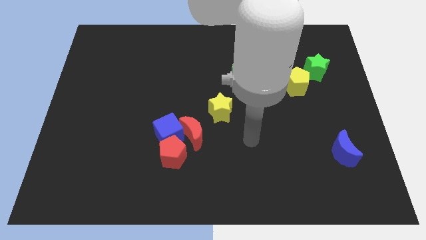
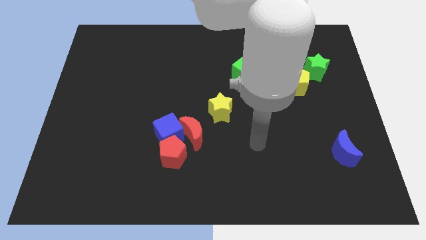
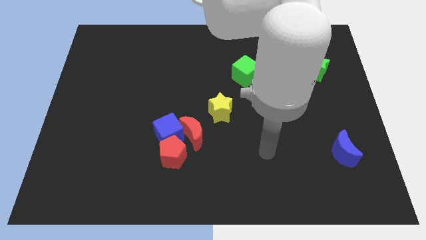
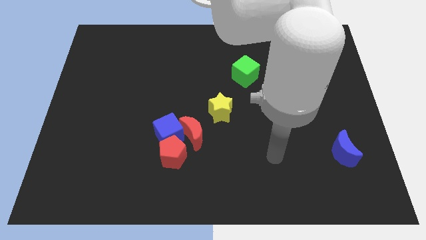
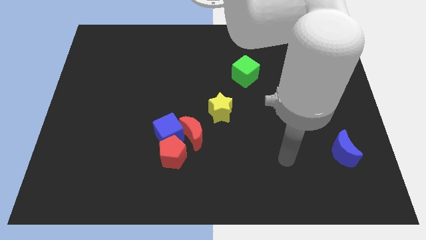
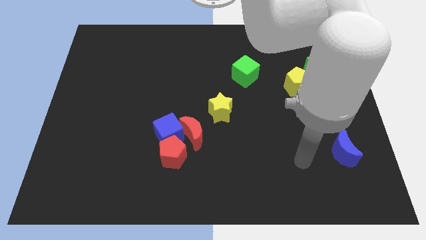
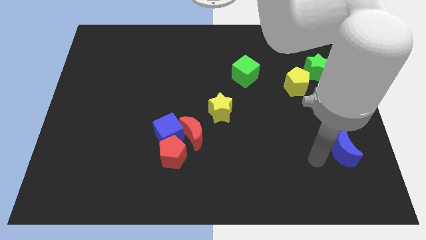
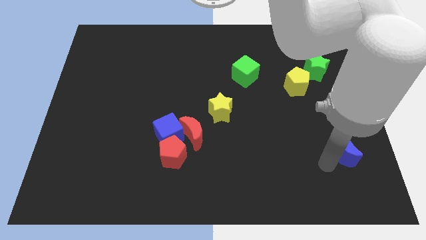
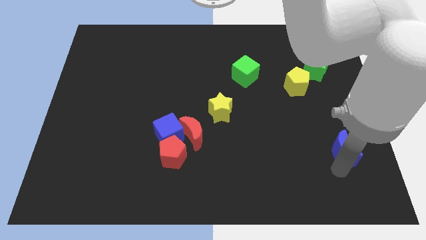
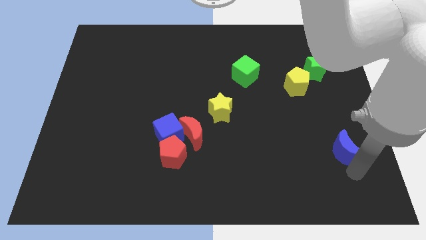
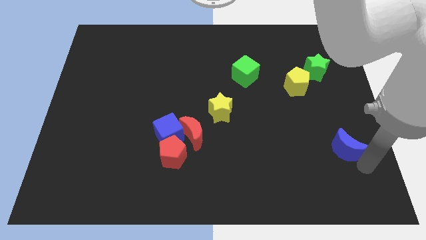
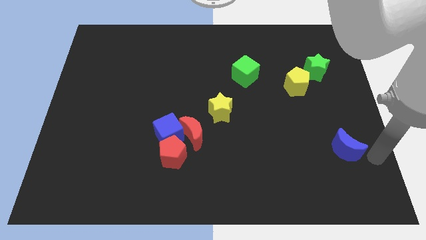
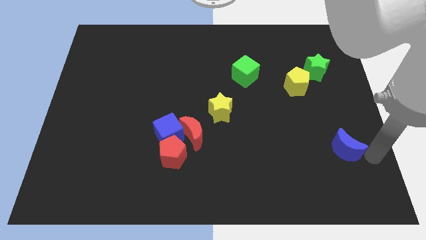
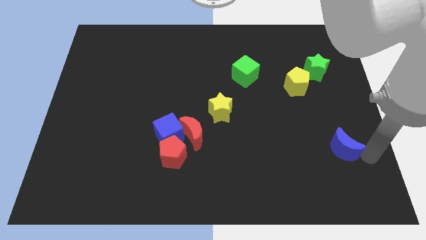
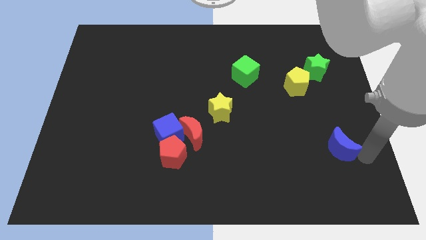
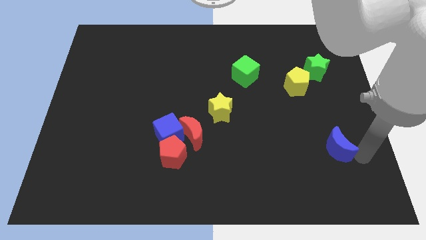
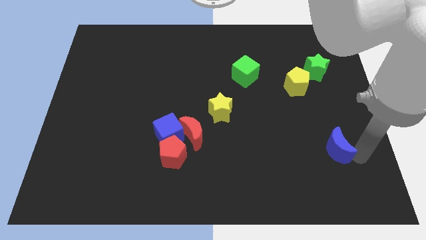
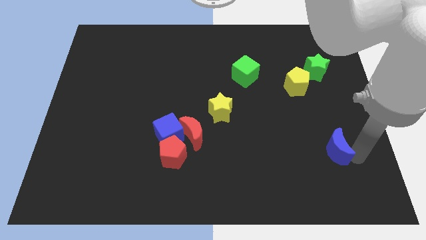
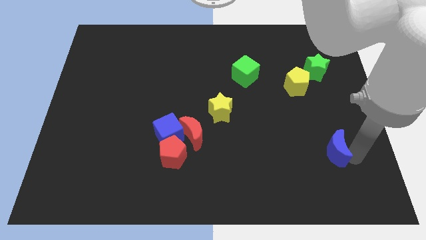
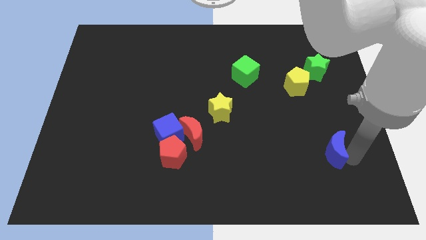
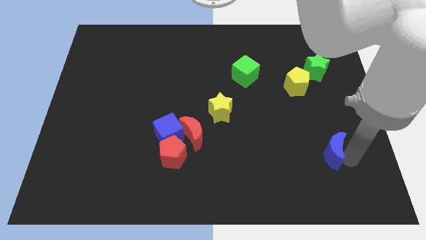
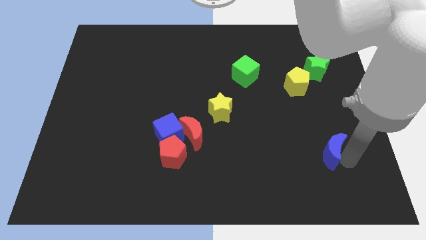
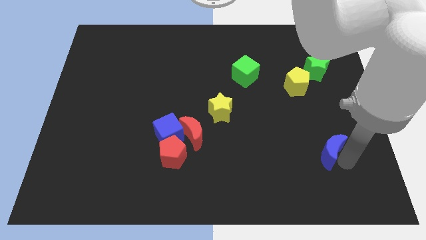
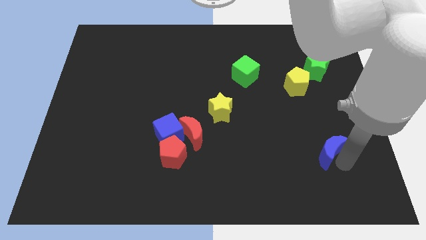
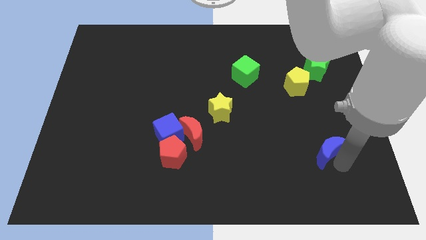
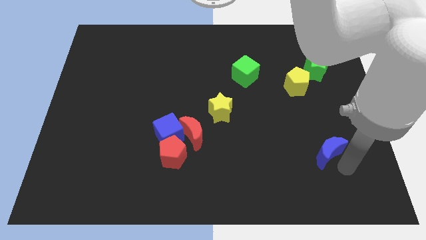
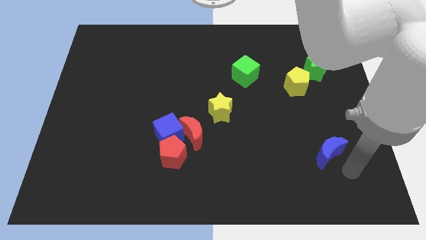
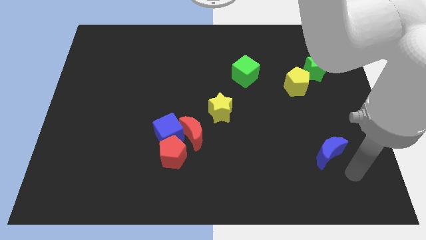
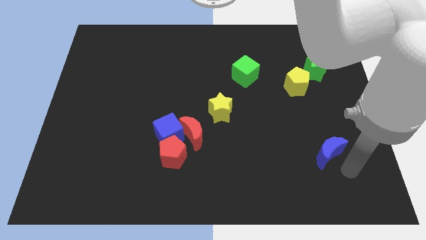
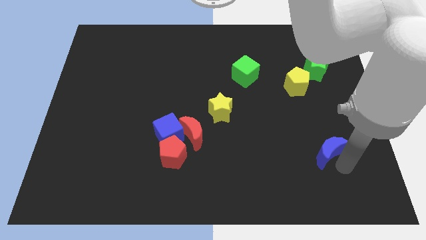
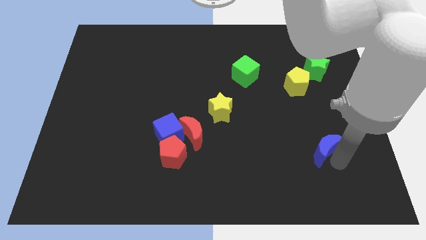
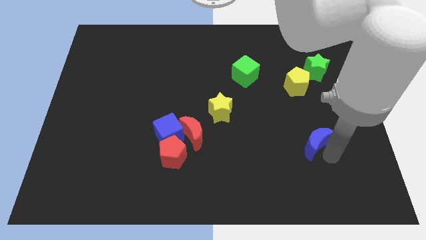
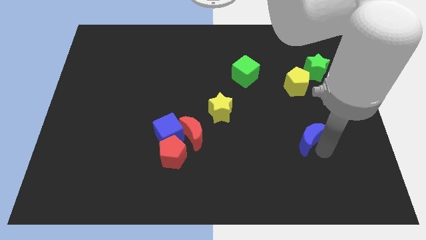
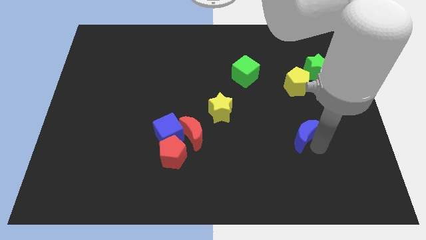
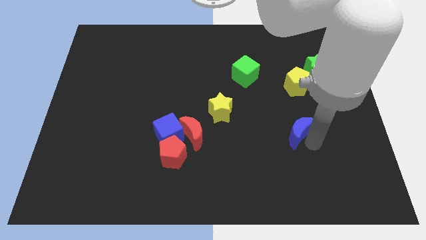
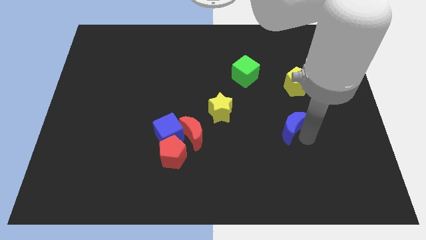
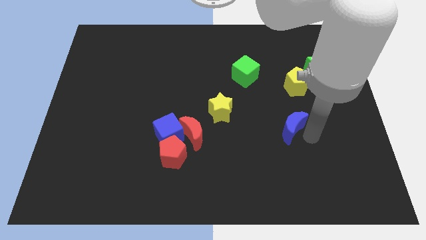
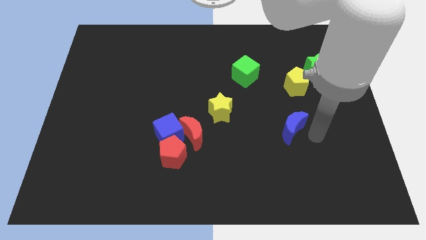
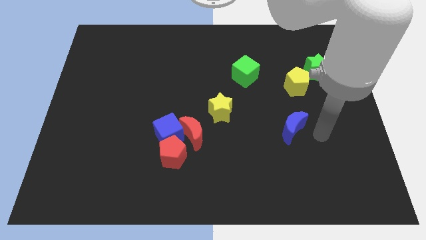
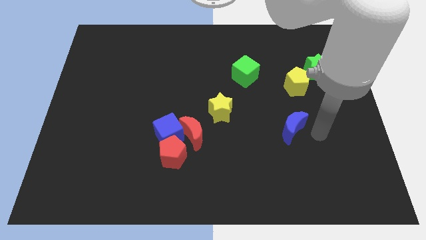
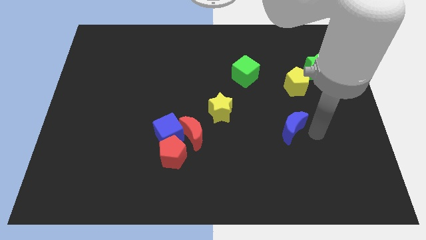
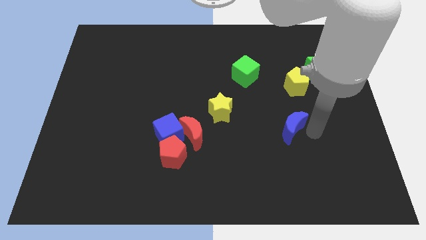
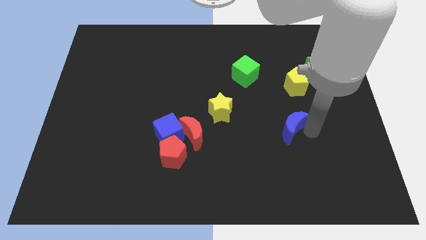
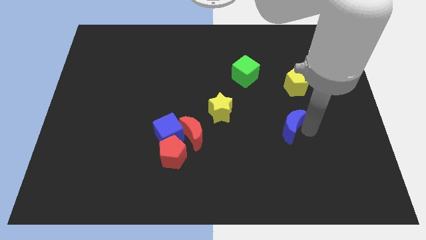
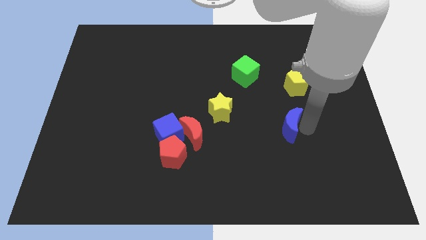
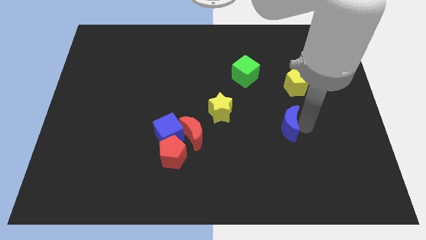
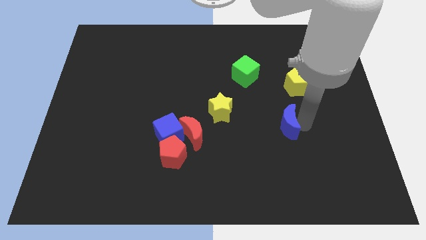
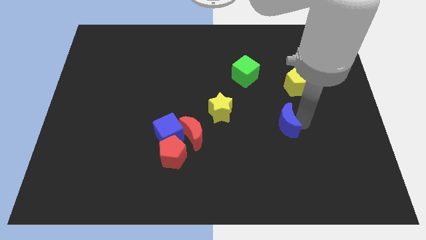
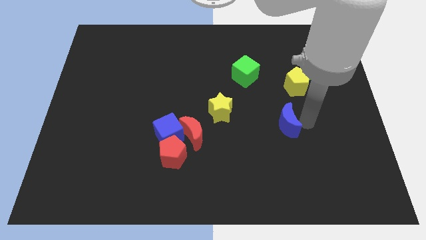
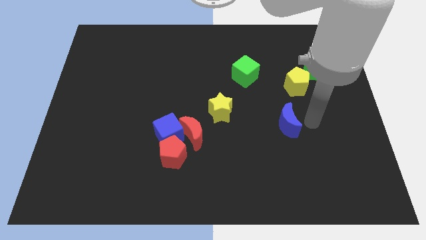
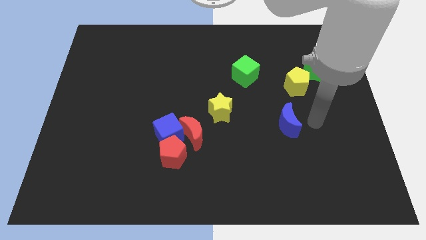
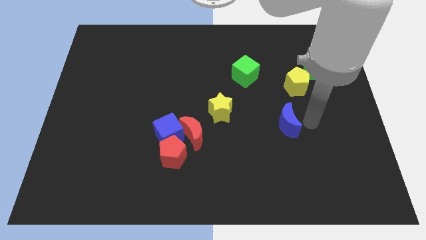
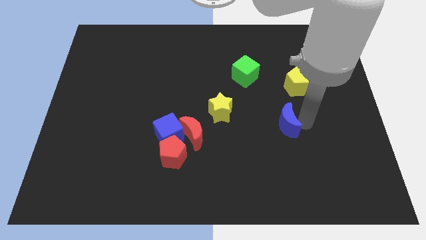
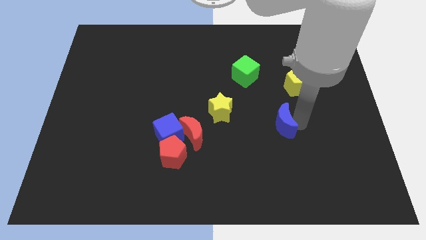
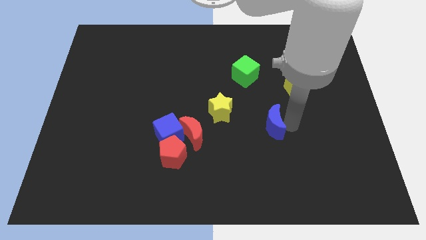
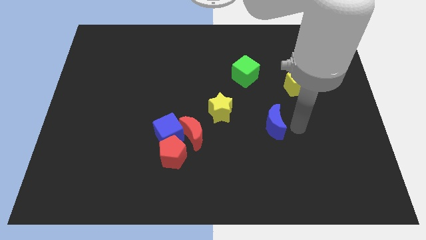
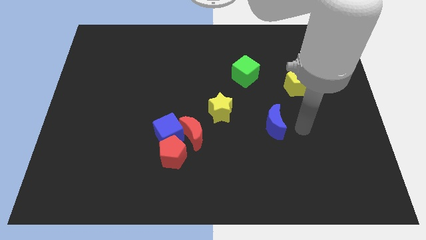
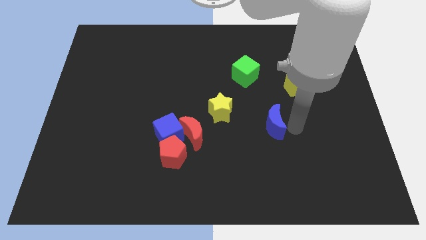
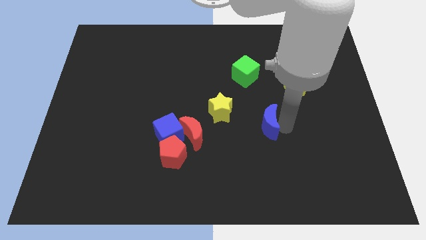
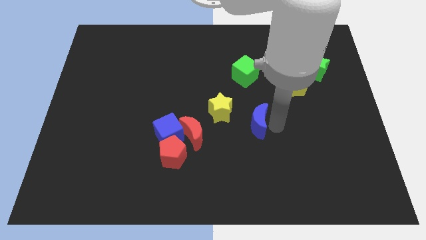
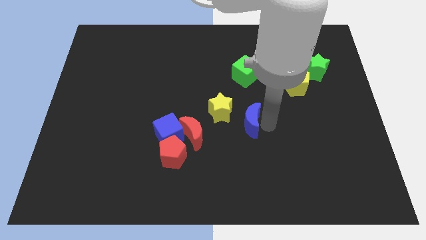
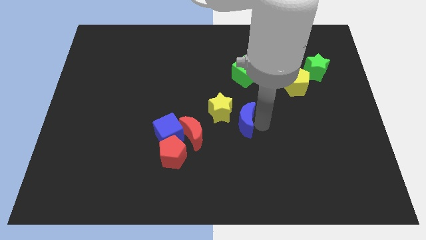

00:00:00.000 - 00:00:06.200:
push the blue moon to the yellow star

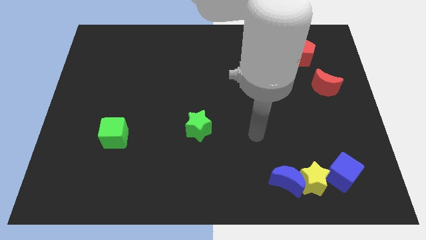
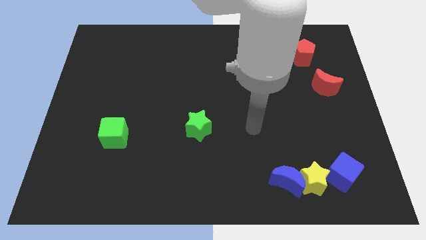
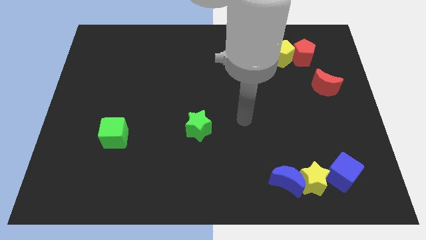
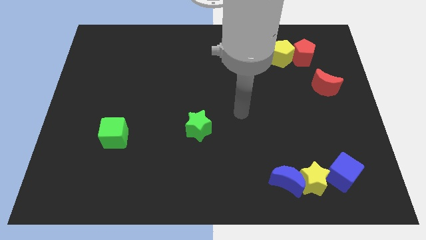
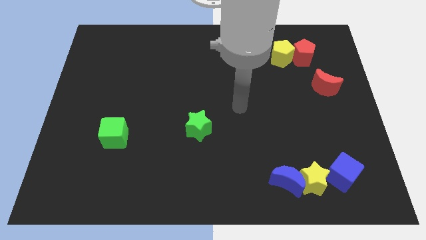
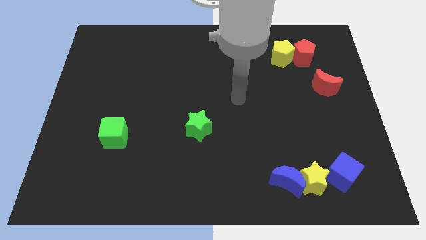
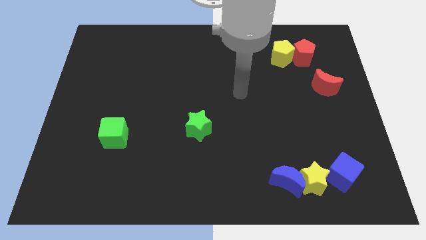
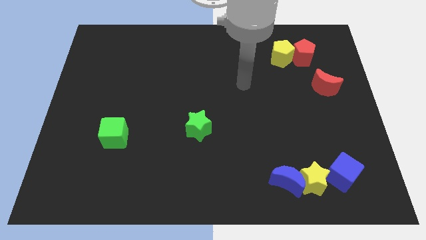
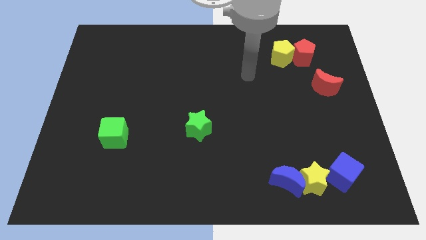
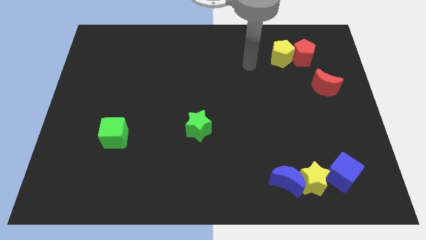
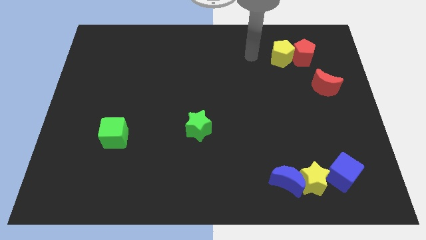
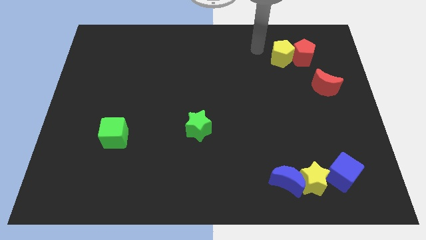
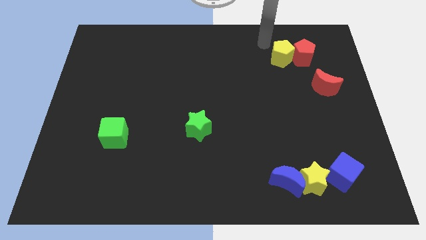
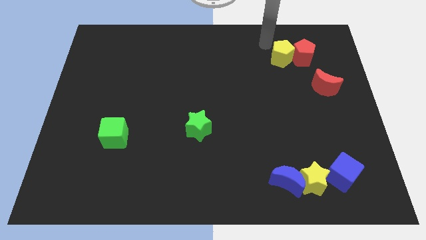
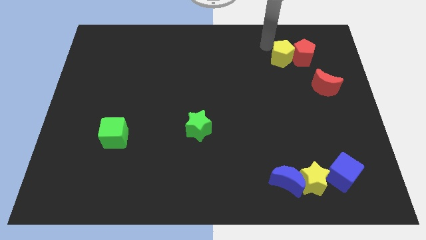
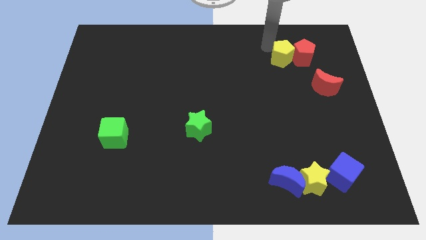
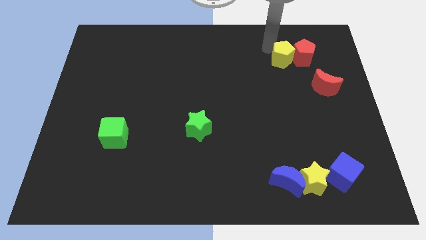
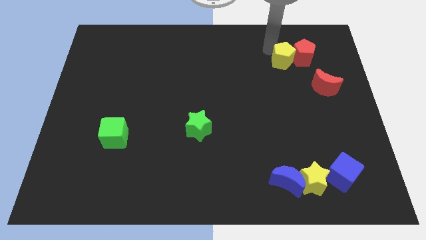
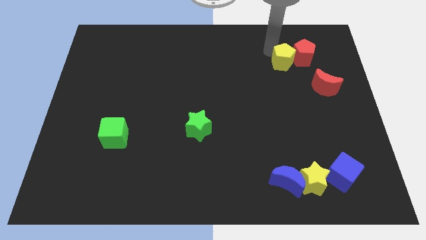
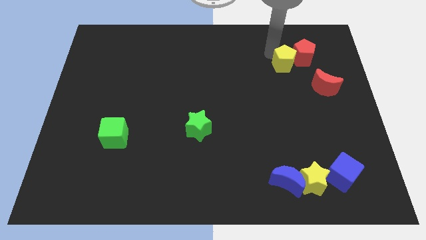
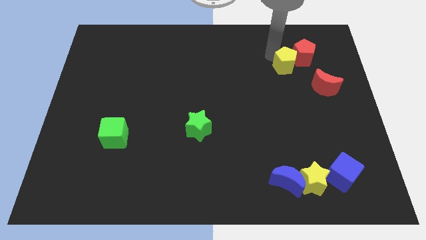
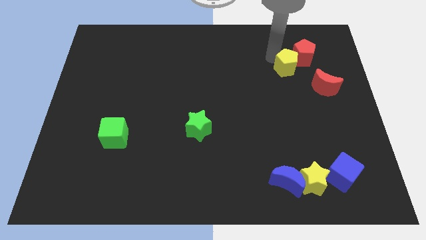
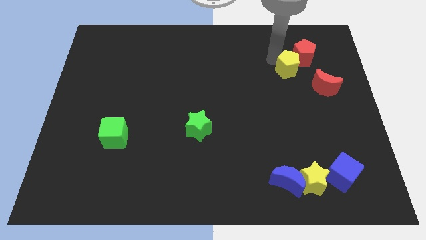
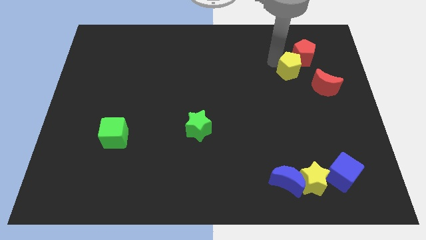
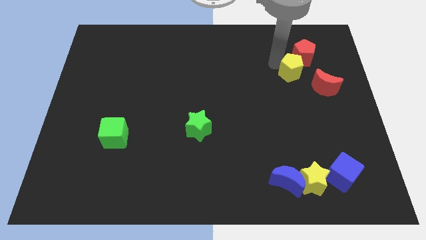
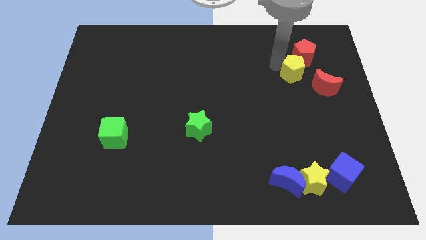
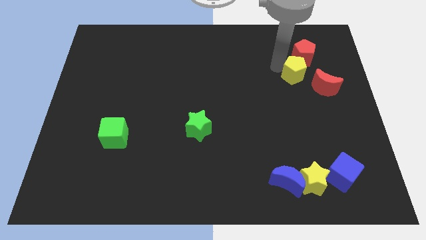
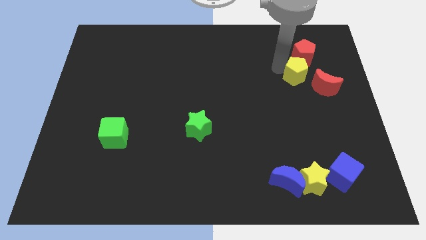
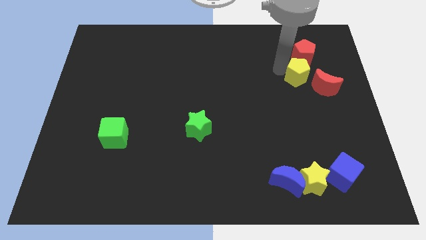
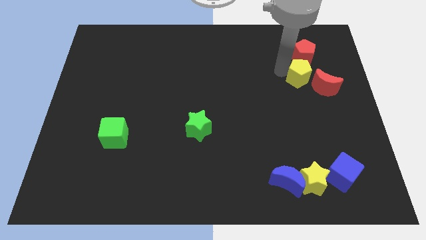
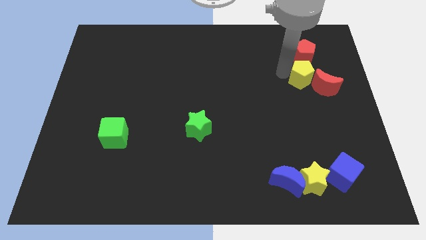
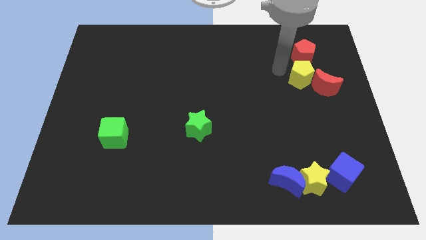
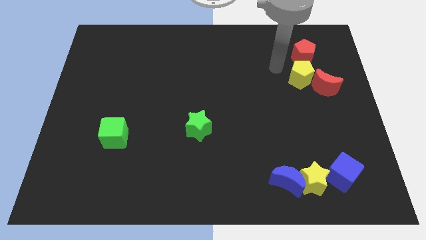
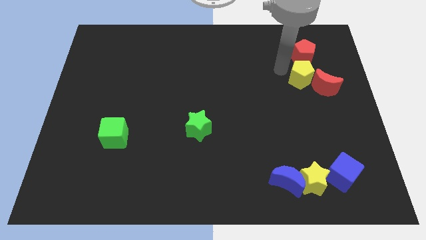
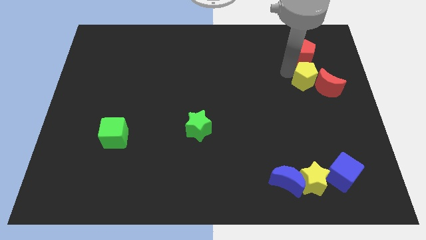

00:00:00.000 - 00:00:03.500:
slide the yellow pentagon close to the red moon
